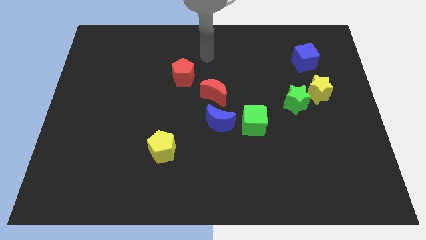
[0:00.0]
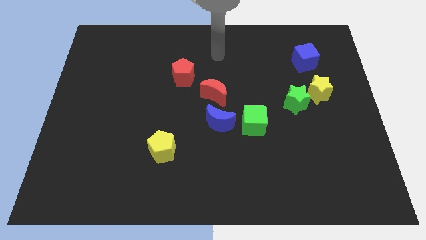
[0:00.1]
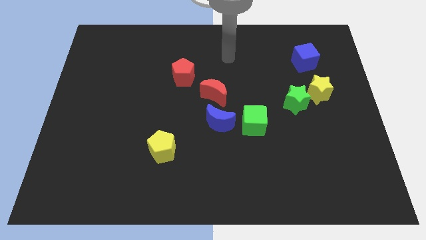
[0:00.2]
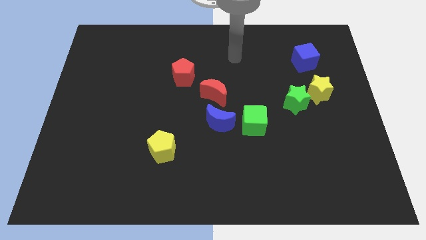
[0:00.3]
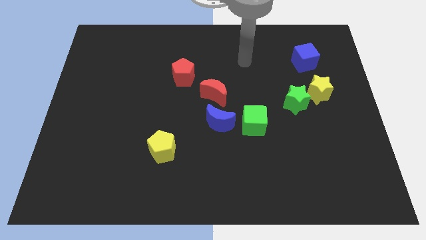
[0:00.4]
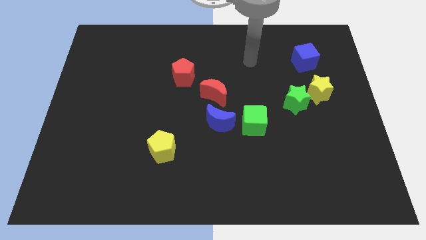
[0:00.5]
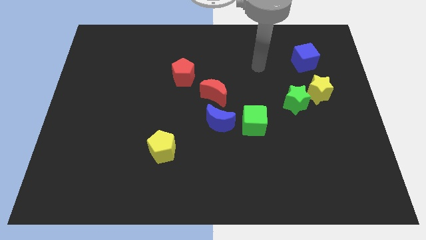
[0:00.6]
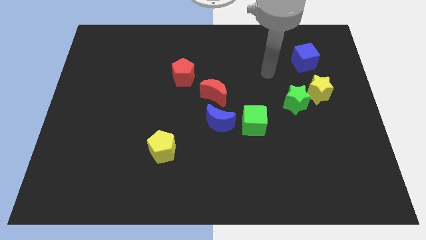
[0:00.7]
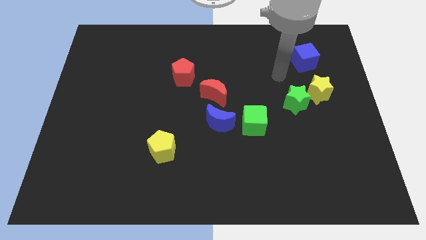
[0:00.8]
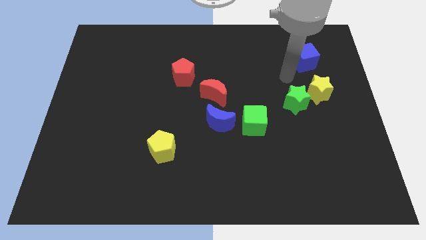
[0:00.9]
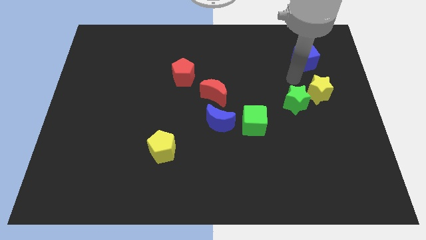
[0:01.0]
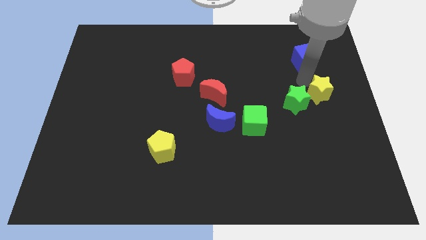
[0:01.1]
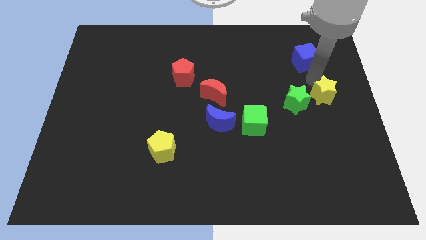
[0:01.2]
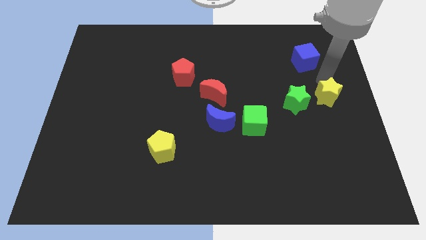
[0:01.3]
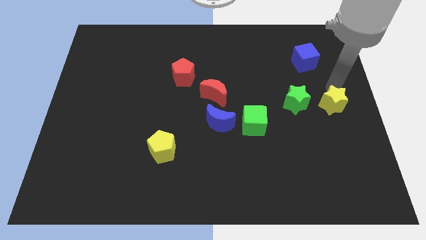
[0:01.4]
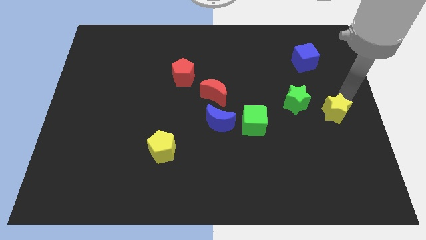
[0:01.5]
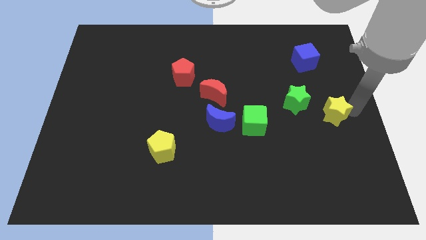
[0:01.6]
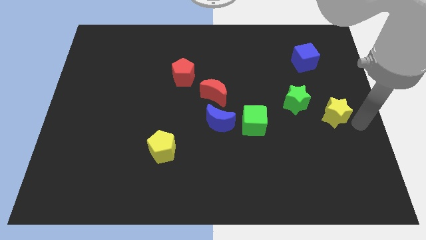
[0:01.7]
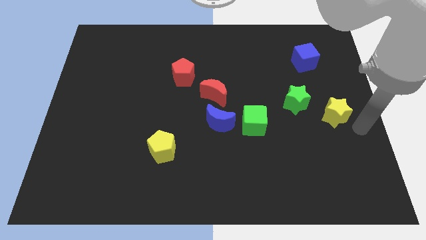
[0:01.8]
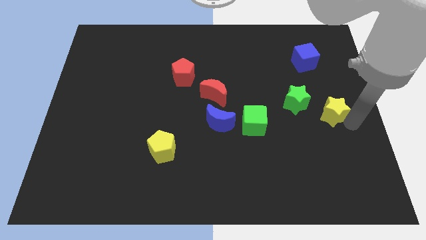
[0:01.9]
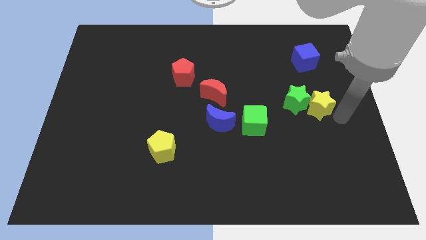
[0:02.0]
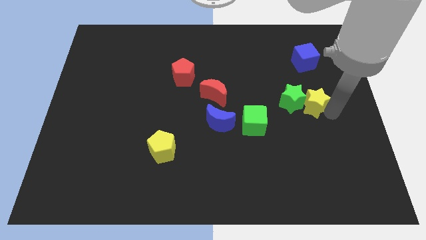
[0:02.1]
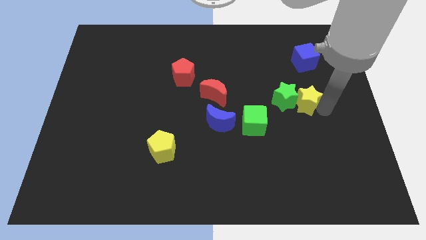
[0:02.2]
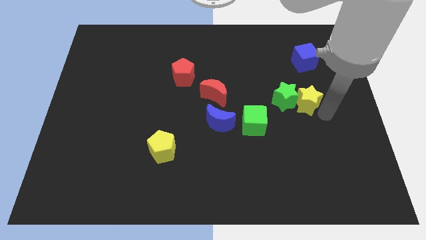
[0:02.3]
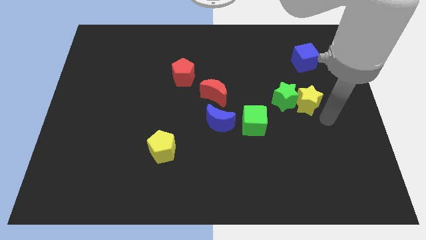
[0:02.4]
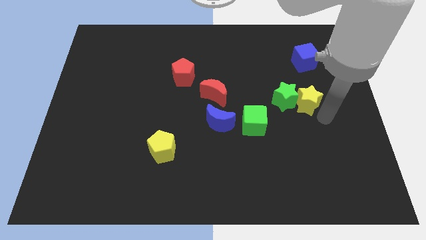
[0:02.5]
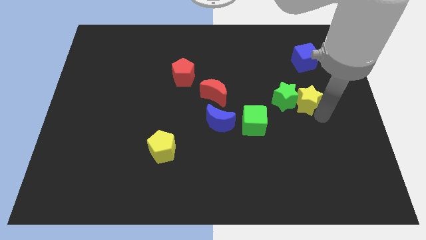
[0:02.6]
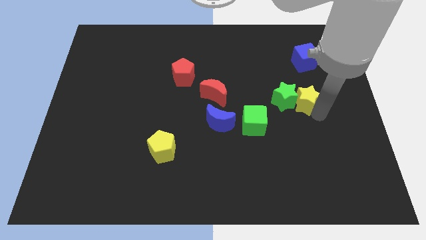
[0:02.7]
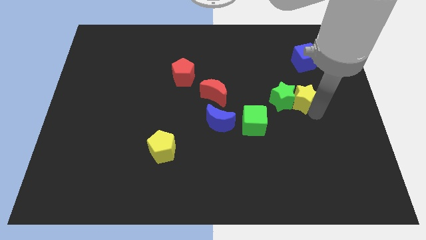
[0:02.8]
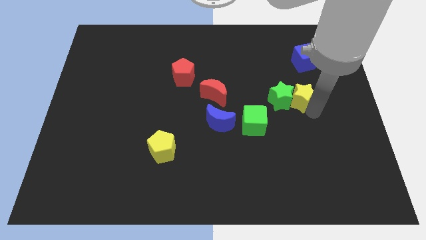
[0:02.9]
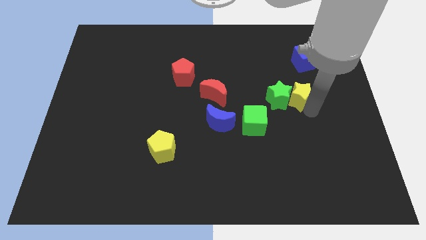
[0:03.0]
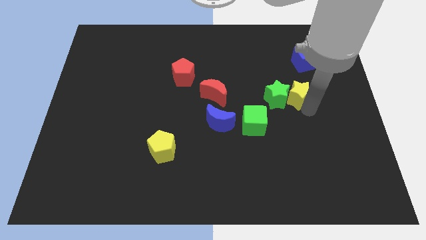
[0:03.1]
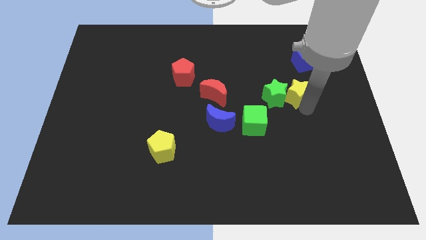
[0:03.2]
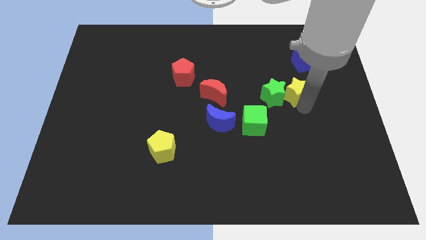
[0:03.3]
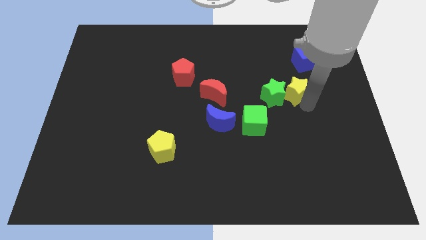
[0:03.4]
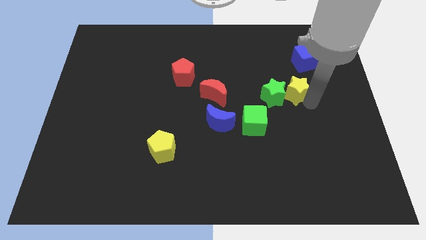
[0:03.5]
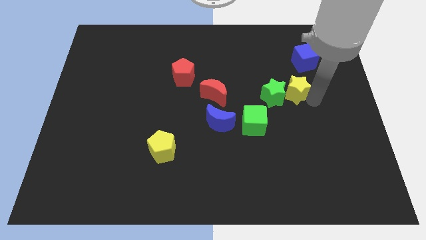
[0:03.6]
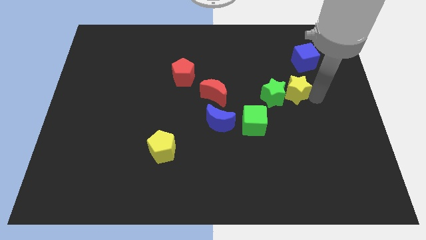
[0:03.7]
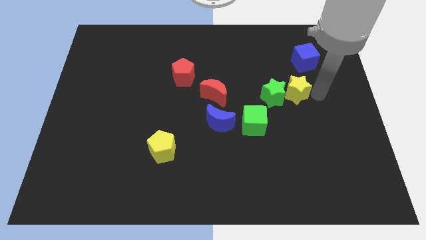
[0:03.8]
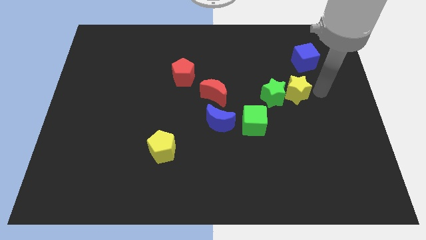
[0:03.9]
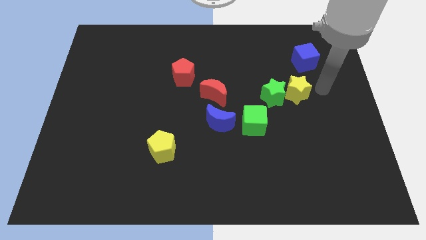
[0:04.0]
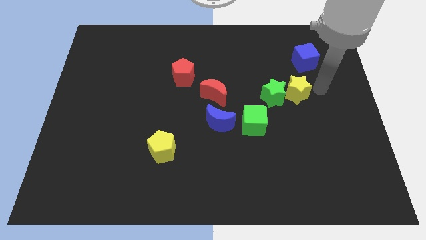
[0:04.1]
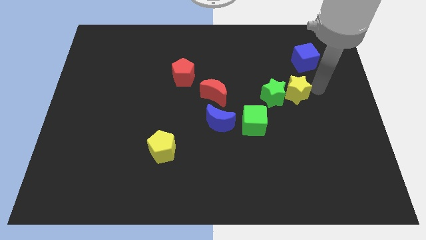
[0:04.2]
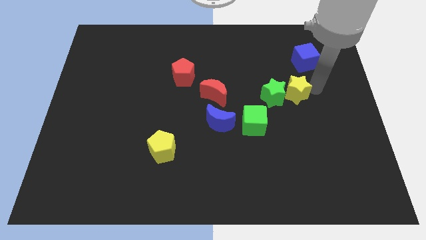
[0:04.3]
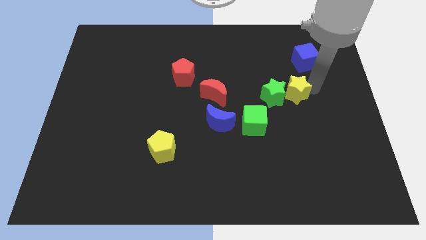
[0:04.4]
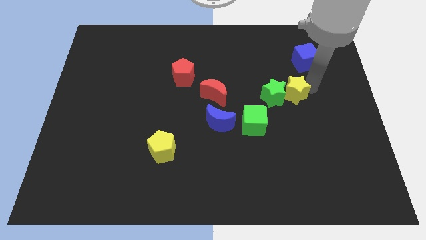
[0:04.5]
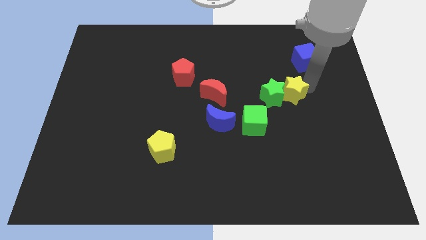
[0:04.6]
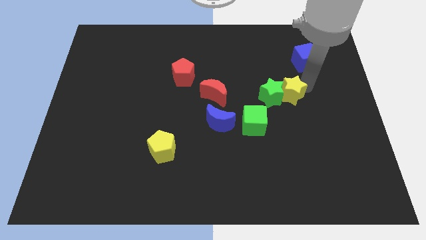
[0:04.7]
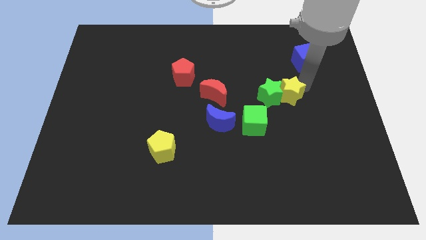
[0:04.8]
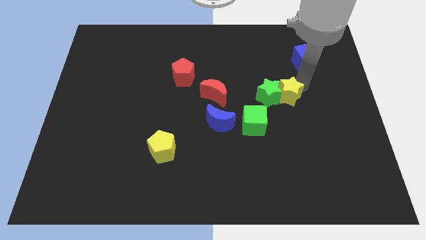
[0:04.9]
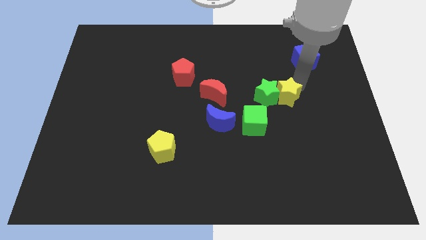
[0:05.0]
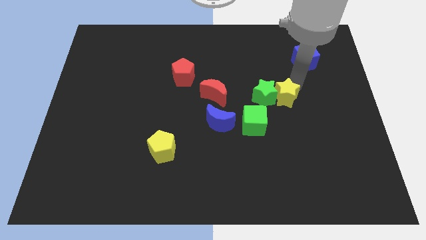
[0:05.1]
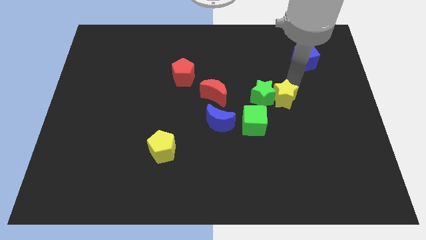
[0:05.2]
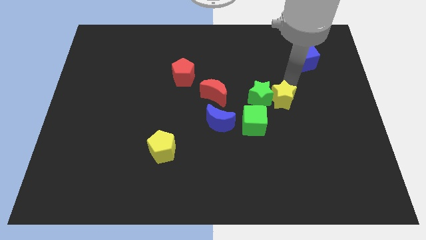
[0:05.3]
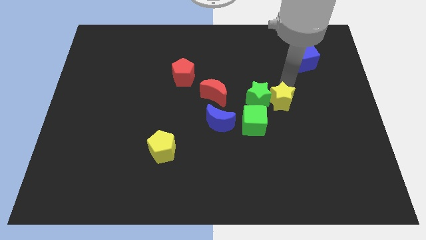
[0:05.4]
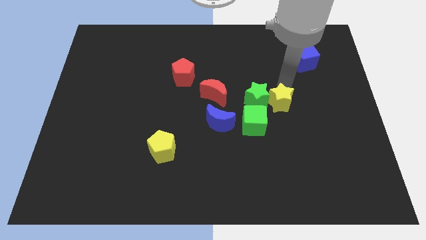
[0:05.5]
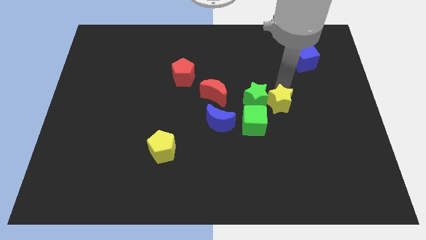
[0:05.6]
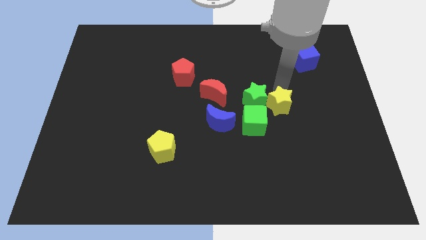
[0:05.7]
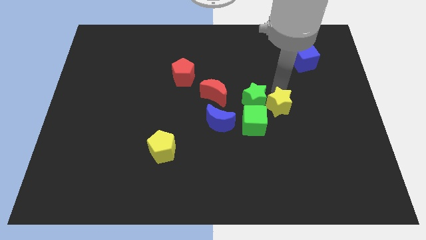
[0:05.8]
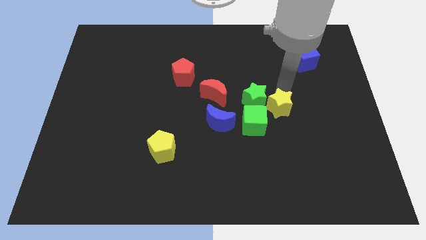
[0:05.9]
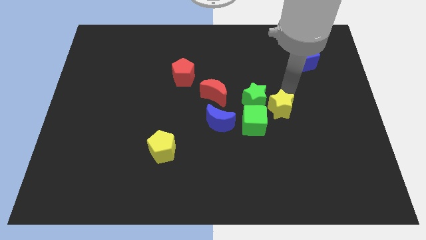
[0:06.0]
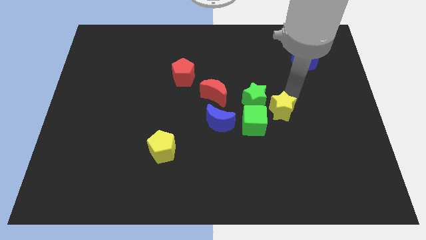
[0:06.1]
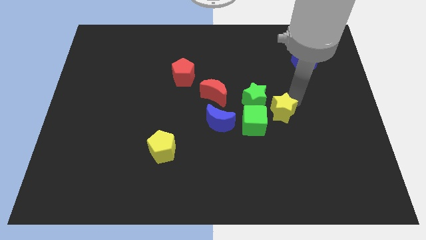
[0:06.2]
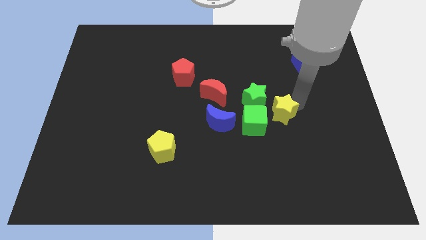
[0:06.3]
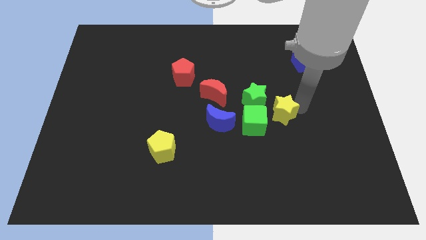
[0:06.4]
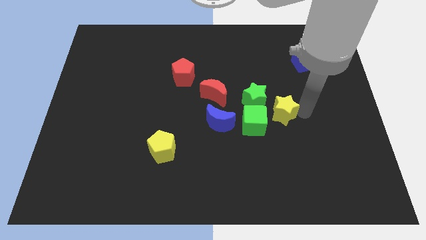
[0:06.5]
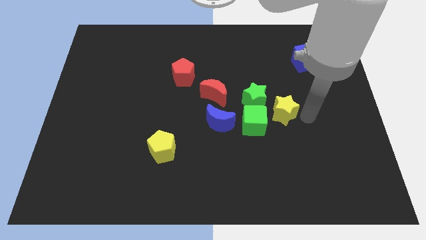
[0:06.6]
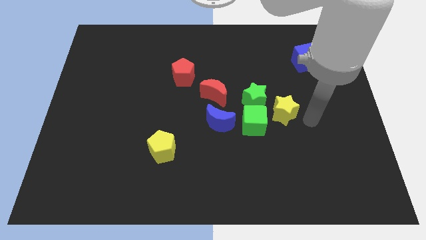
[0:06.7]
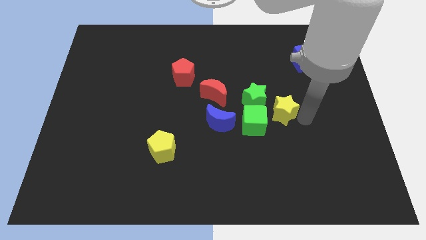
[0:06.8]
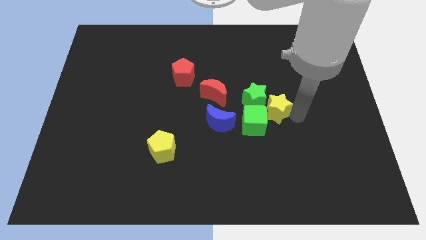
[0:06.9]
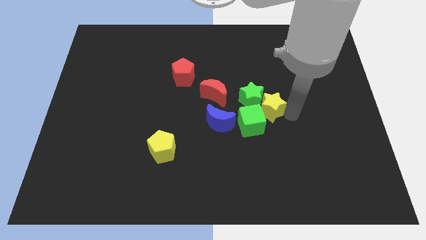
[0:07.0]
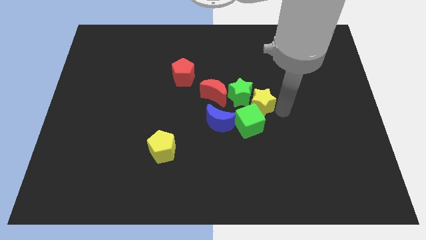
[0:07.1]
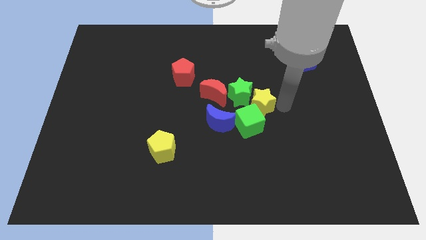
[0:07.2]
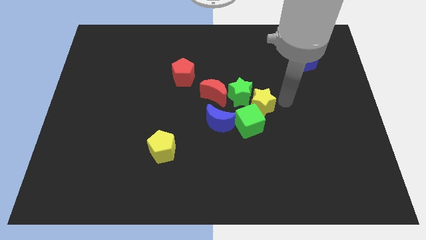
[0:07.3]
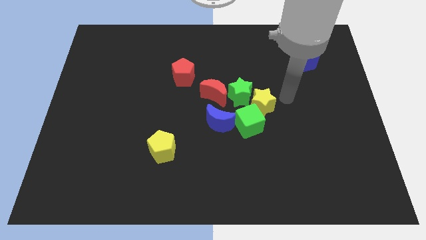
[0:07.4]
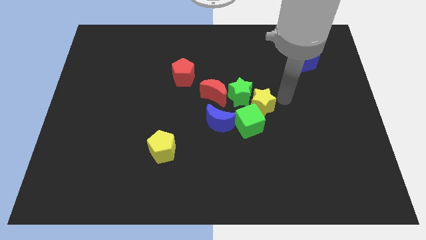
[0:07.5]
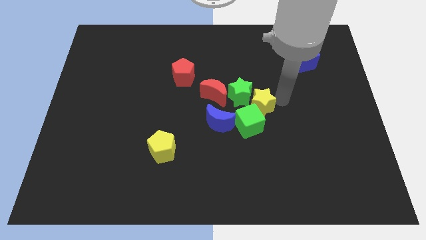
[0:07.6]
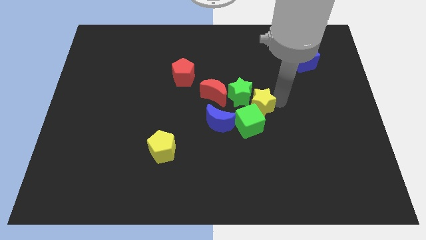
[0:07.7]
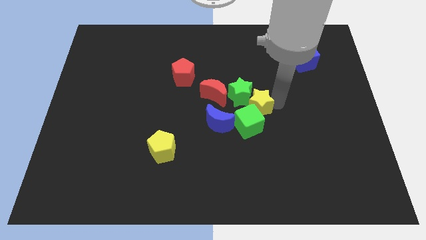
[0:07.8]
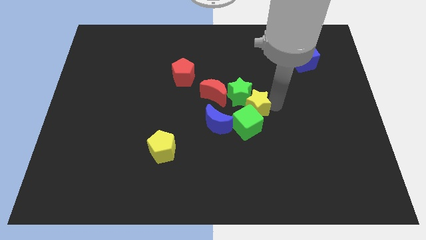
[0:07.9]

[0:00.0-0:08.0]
slide the yellow star diagonally down and to the right of the red moon
